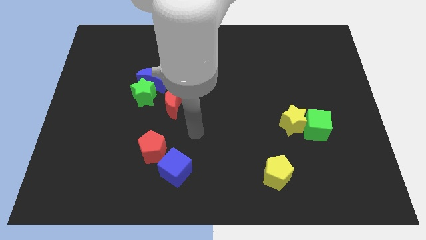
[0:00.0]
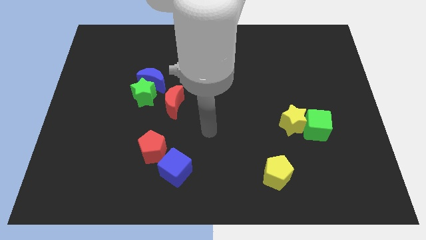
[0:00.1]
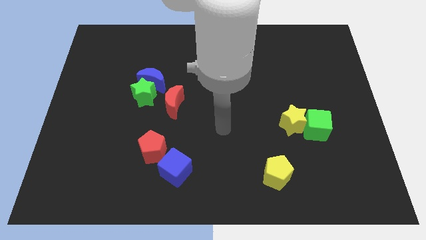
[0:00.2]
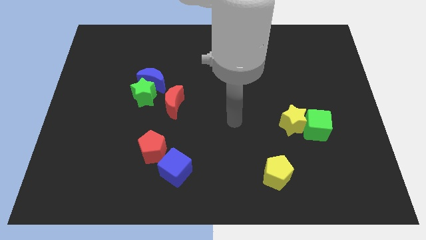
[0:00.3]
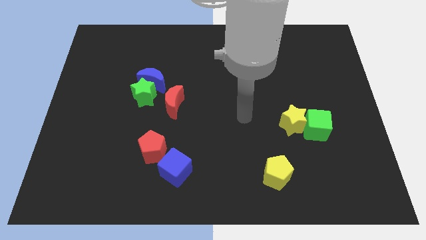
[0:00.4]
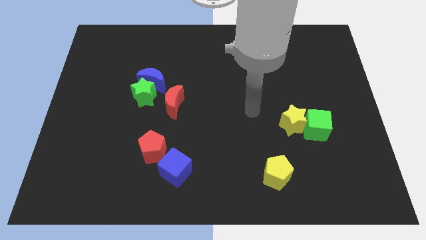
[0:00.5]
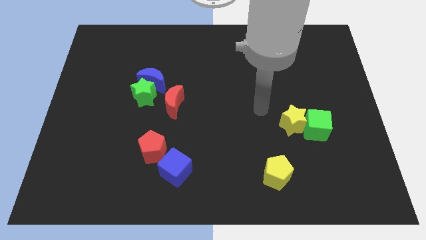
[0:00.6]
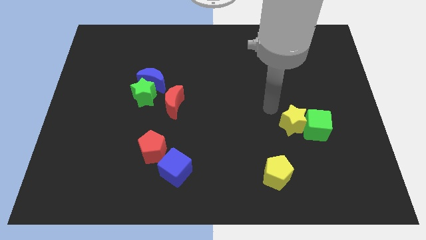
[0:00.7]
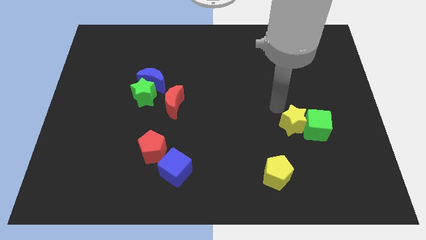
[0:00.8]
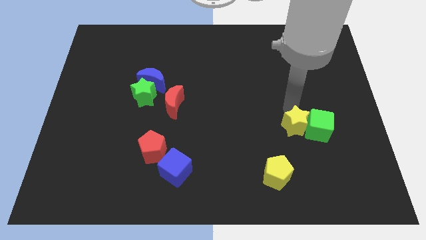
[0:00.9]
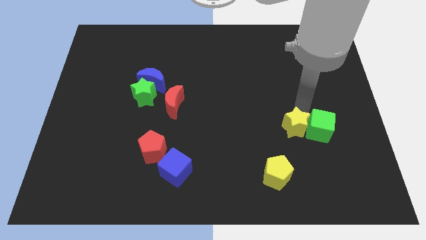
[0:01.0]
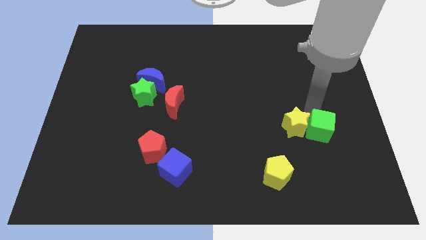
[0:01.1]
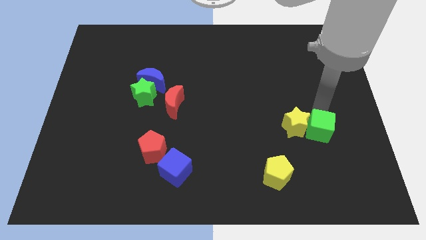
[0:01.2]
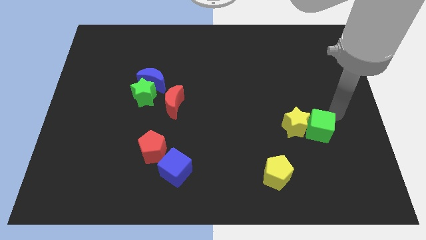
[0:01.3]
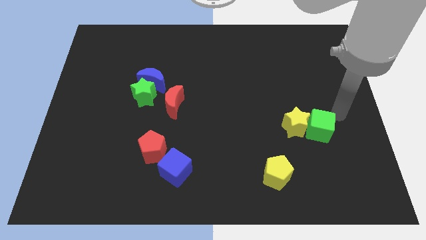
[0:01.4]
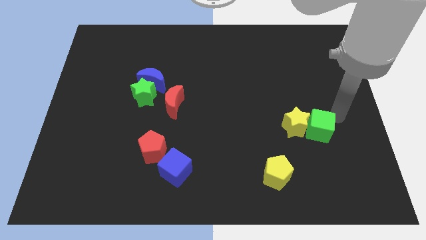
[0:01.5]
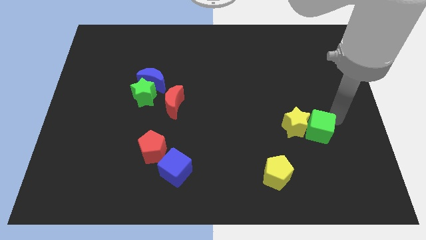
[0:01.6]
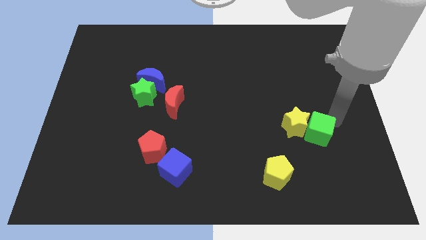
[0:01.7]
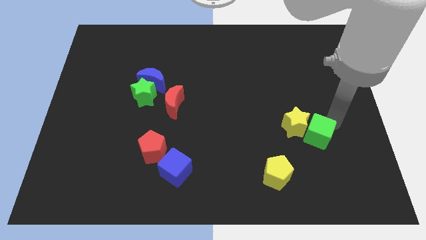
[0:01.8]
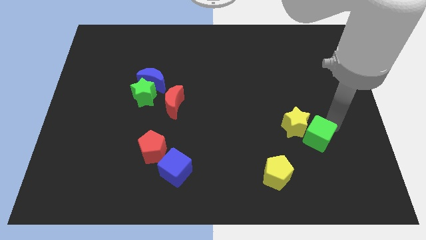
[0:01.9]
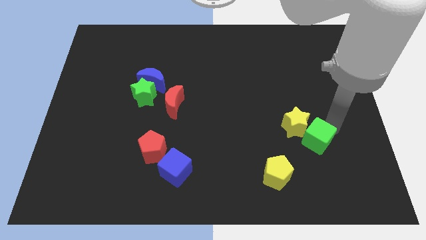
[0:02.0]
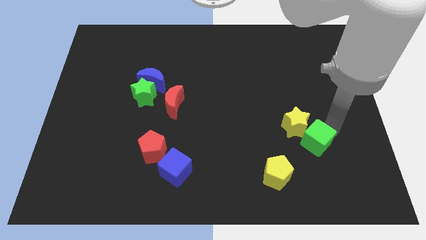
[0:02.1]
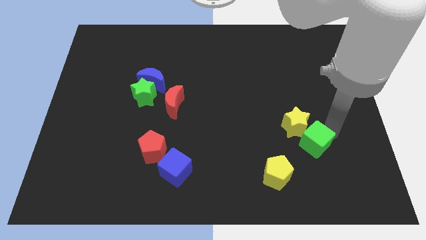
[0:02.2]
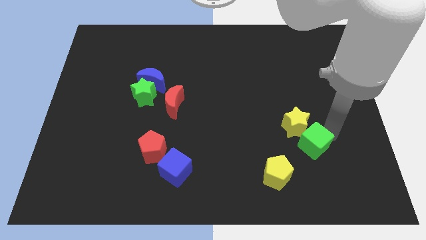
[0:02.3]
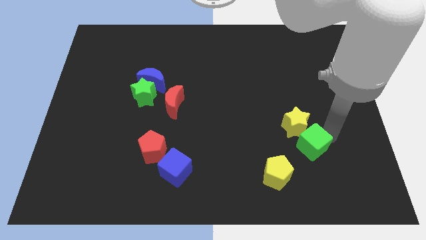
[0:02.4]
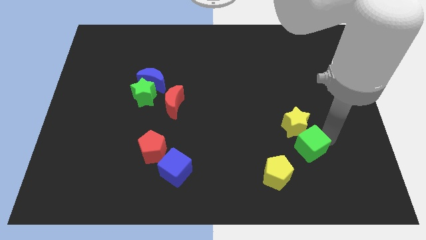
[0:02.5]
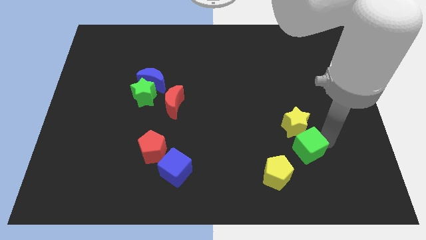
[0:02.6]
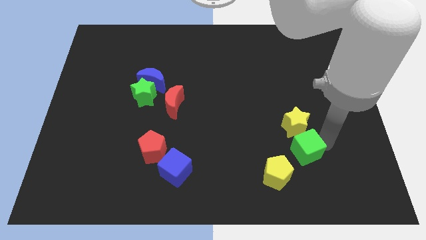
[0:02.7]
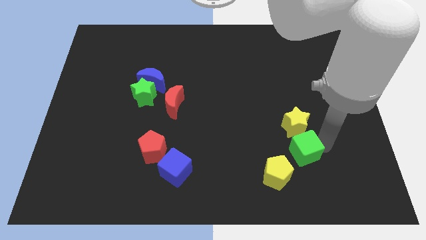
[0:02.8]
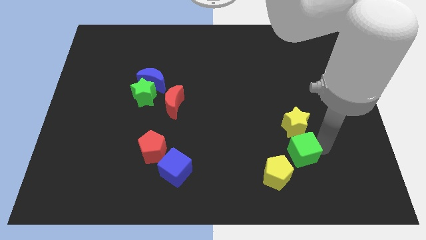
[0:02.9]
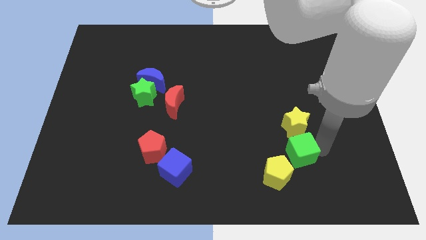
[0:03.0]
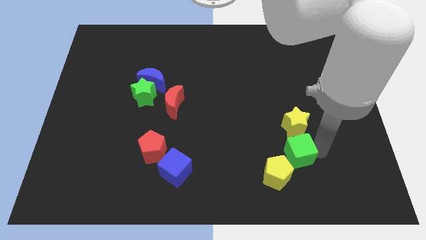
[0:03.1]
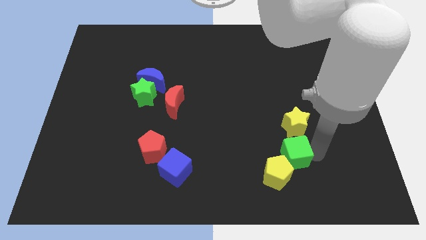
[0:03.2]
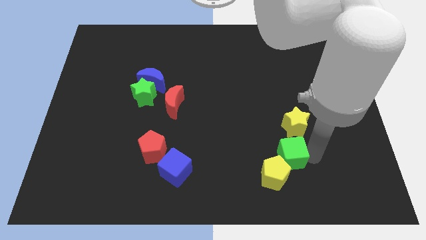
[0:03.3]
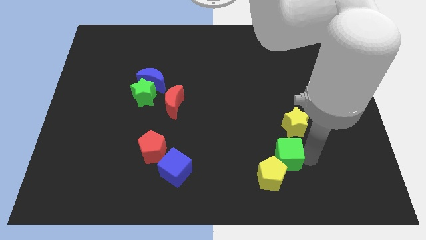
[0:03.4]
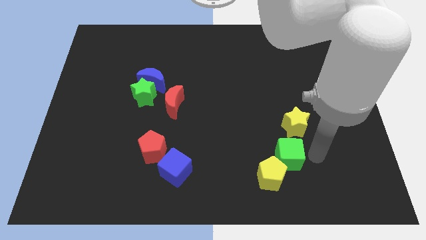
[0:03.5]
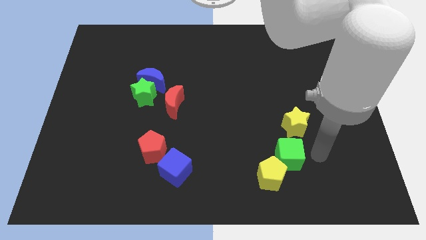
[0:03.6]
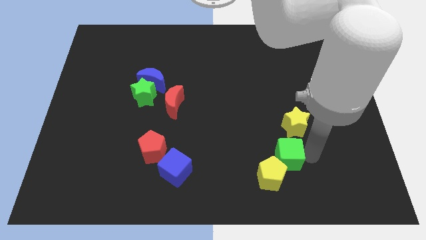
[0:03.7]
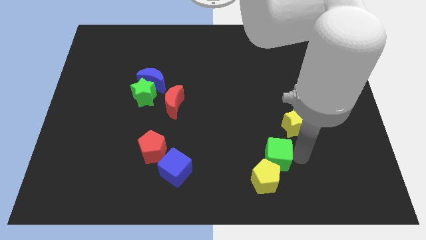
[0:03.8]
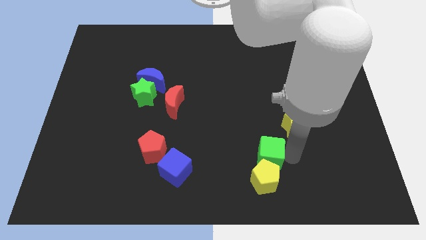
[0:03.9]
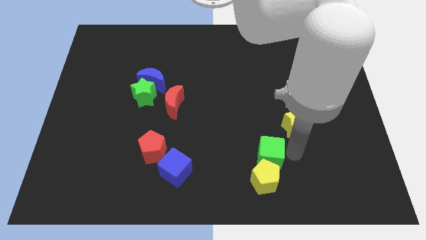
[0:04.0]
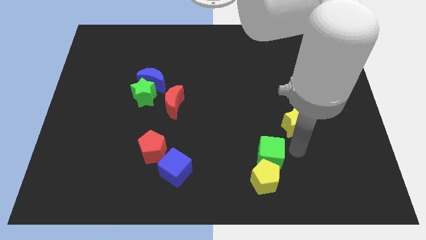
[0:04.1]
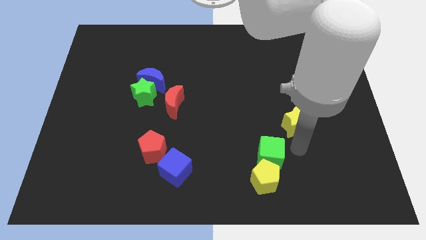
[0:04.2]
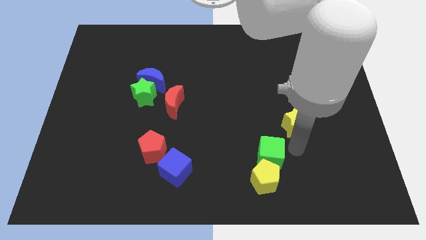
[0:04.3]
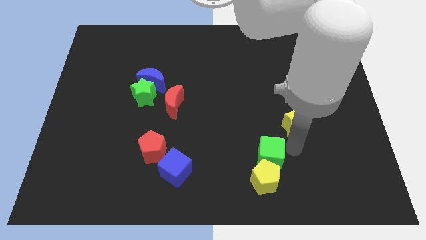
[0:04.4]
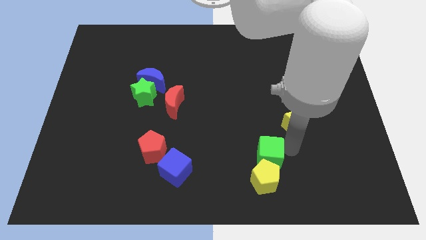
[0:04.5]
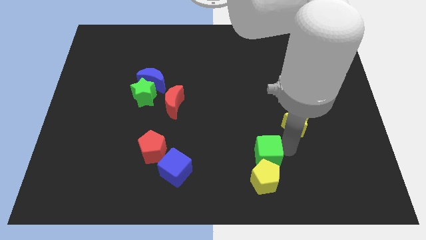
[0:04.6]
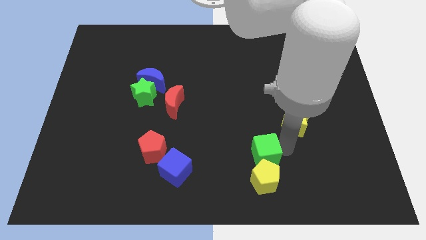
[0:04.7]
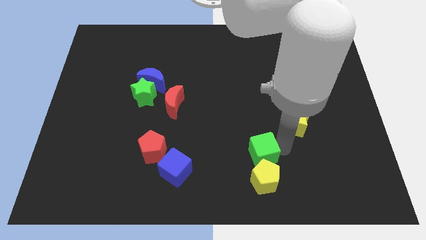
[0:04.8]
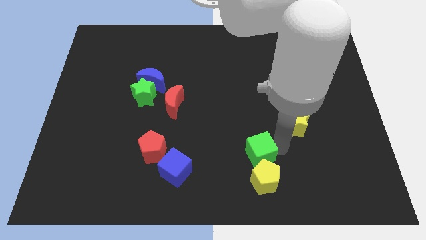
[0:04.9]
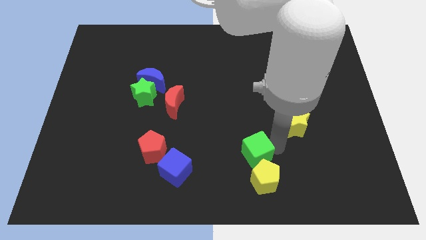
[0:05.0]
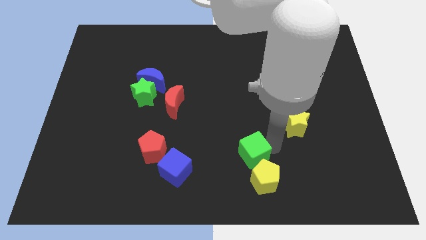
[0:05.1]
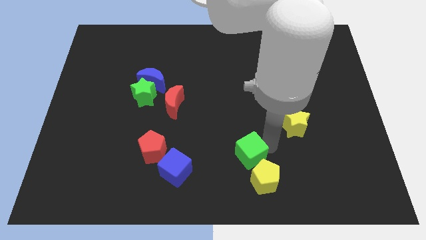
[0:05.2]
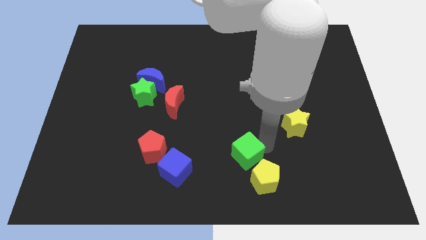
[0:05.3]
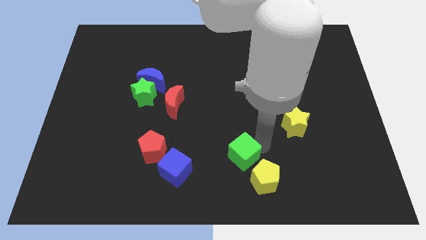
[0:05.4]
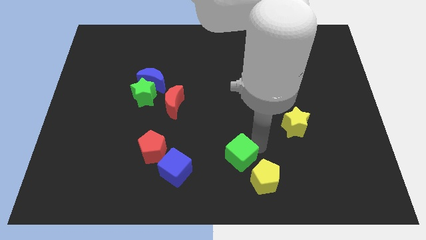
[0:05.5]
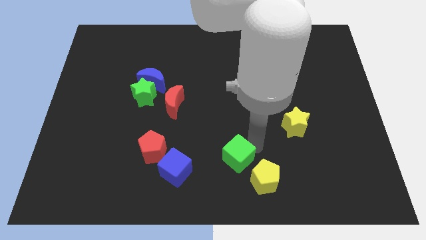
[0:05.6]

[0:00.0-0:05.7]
move the green cube to the bottom side
